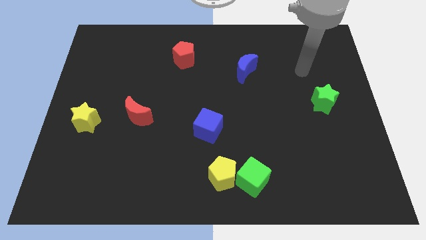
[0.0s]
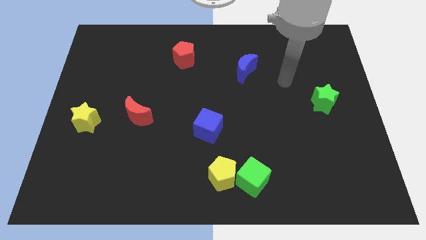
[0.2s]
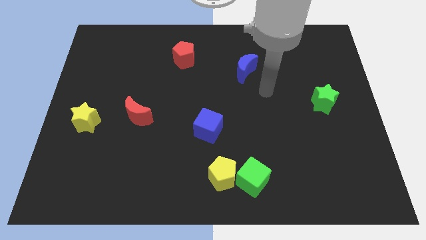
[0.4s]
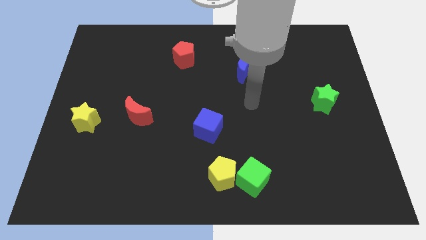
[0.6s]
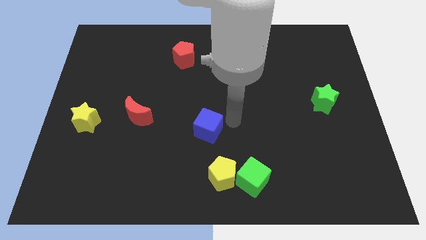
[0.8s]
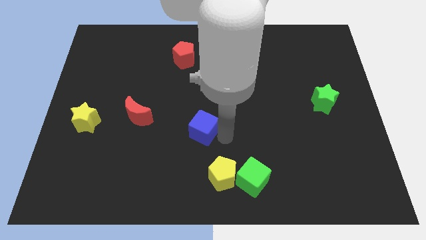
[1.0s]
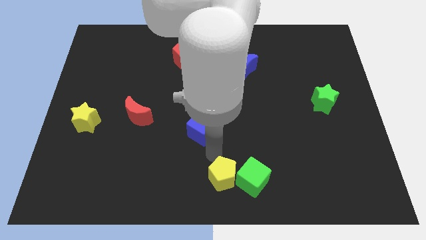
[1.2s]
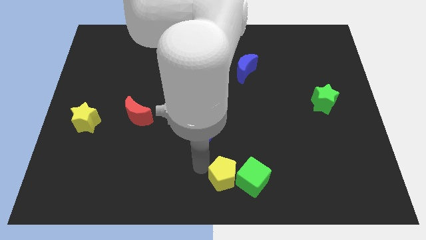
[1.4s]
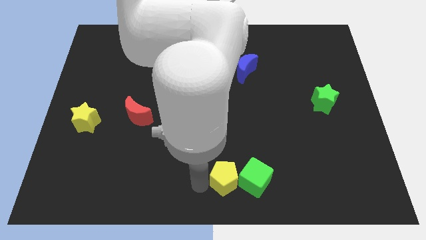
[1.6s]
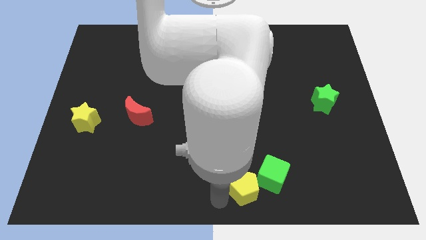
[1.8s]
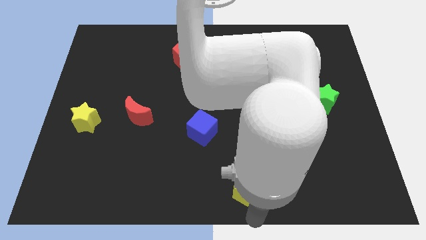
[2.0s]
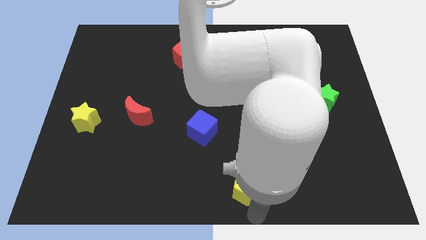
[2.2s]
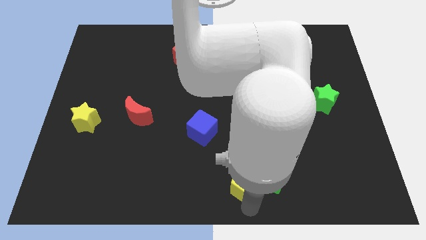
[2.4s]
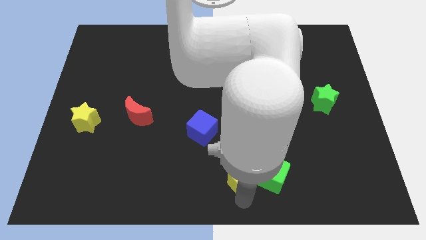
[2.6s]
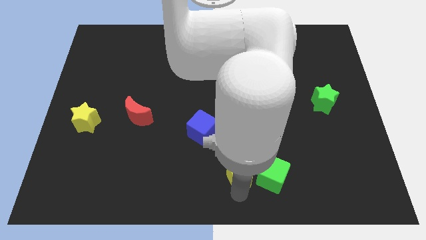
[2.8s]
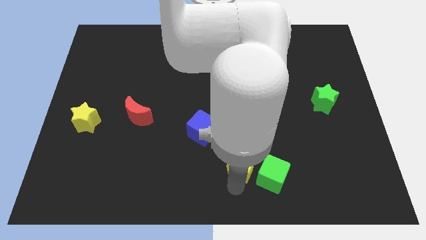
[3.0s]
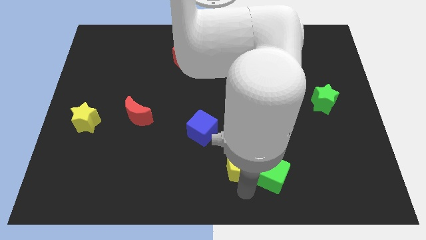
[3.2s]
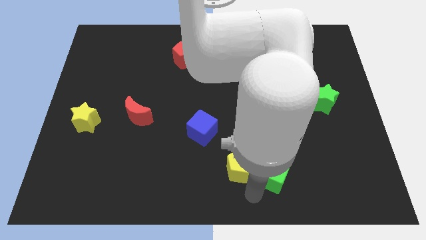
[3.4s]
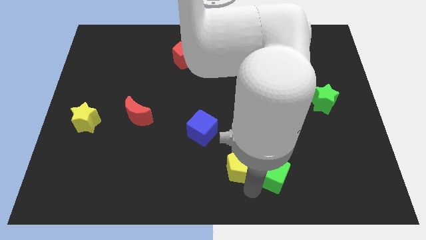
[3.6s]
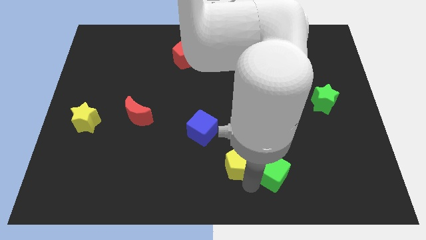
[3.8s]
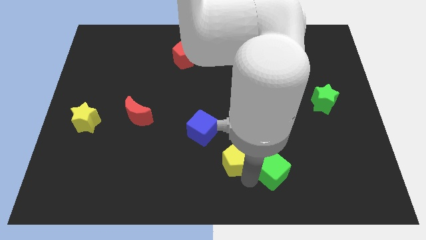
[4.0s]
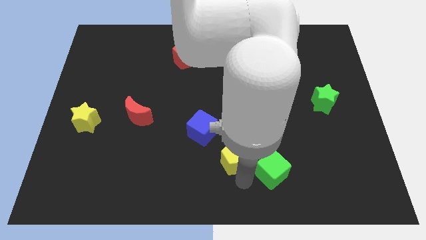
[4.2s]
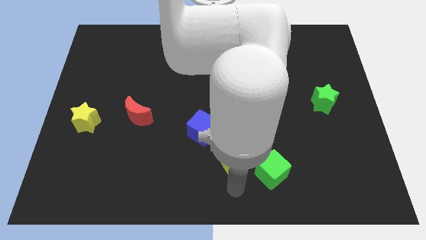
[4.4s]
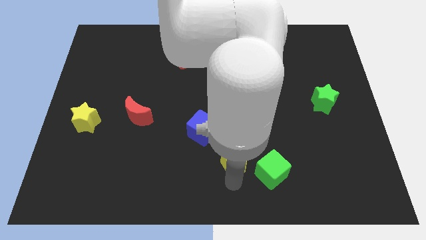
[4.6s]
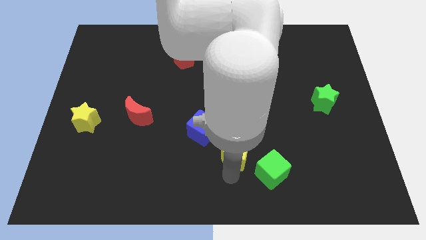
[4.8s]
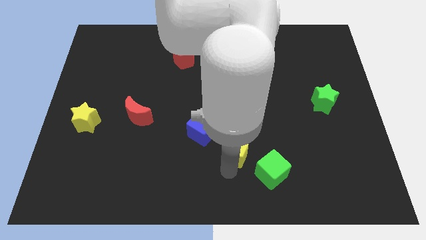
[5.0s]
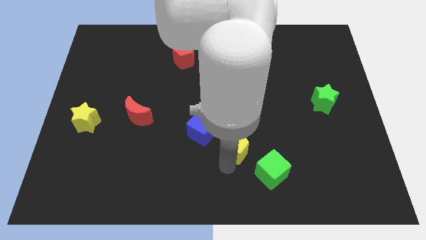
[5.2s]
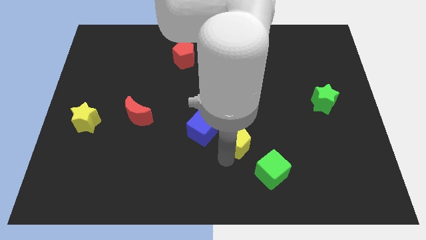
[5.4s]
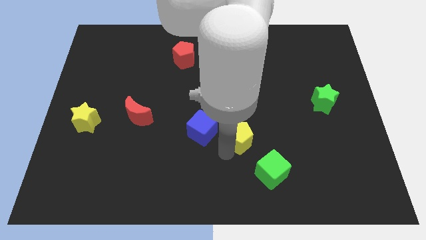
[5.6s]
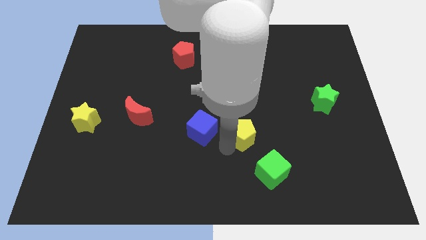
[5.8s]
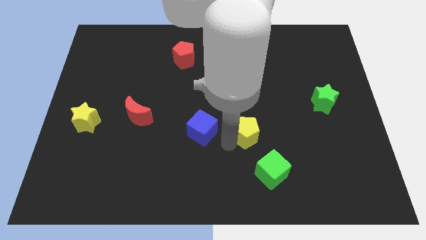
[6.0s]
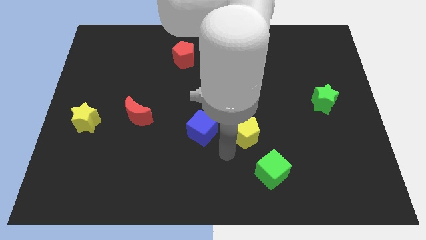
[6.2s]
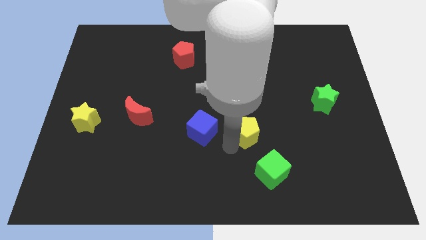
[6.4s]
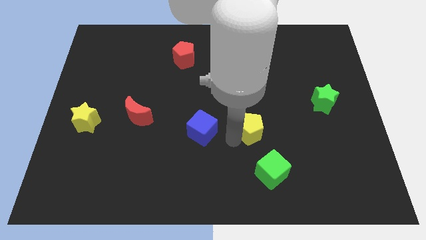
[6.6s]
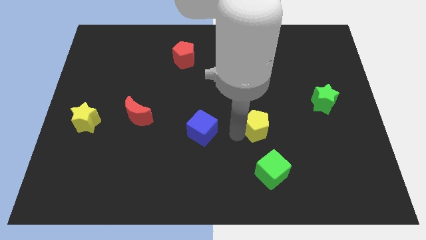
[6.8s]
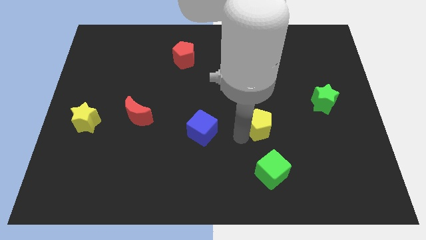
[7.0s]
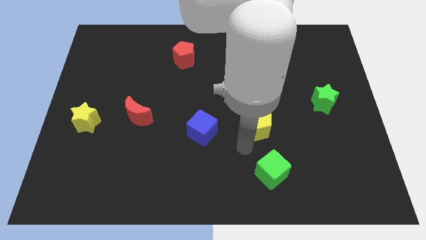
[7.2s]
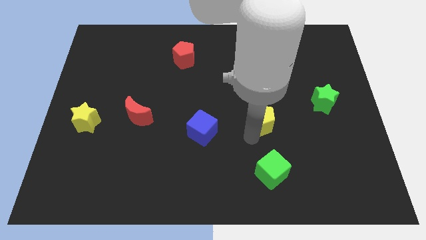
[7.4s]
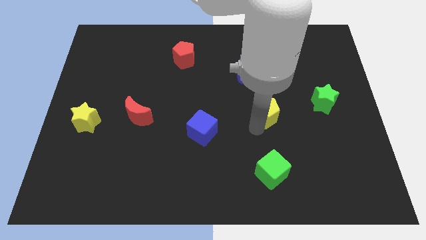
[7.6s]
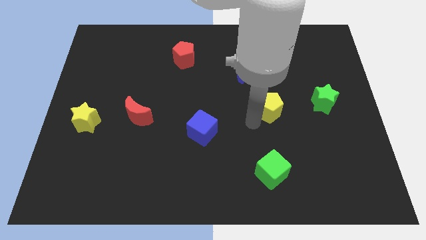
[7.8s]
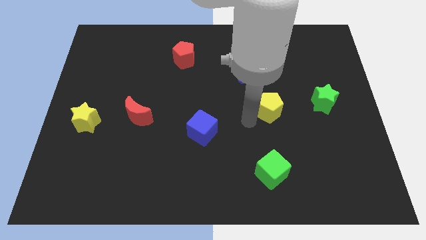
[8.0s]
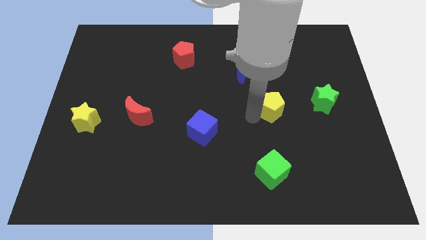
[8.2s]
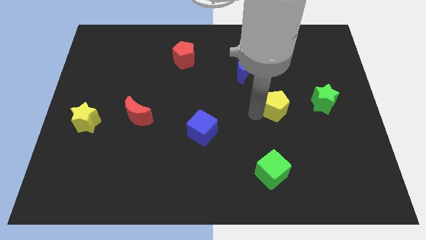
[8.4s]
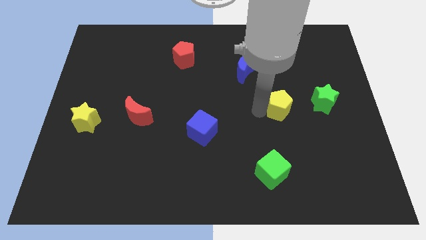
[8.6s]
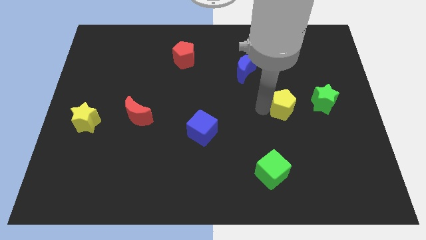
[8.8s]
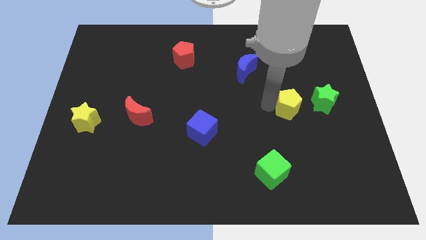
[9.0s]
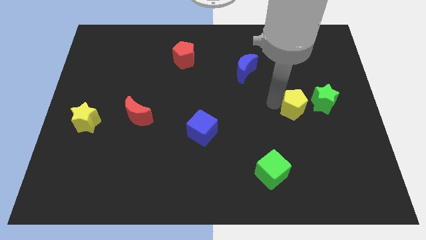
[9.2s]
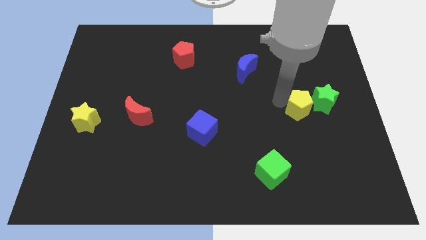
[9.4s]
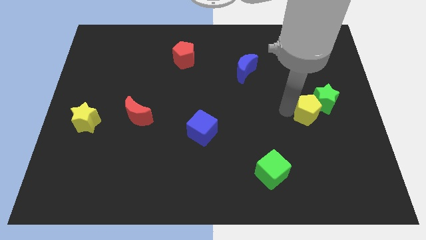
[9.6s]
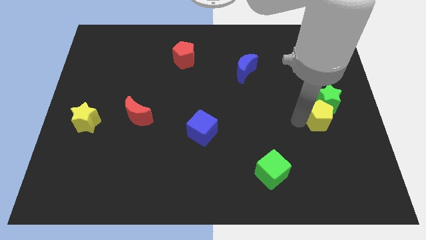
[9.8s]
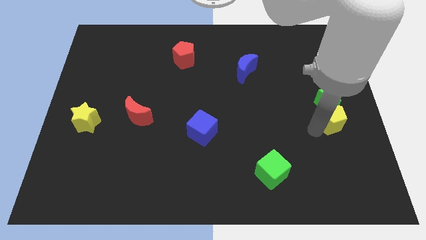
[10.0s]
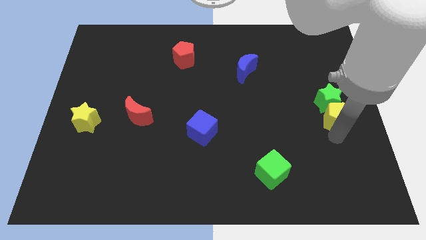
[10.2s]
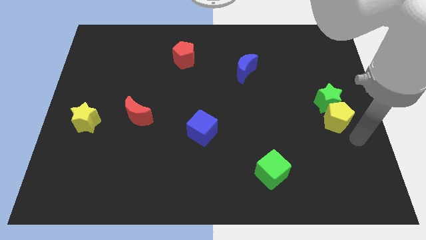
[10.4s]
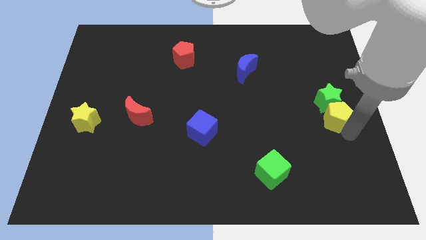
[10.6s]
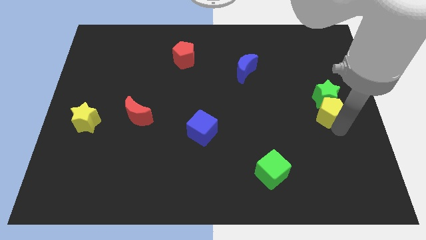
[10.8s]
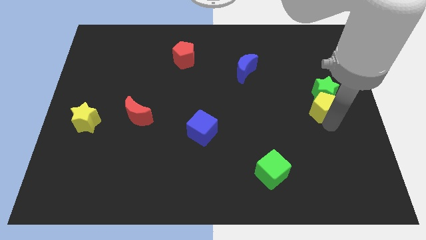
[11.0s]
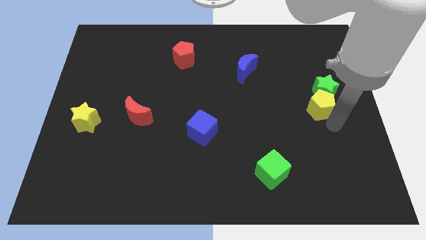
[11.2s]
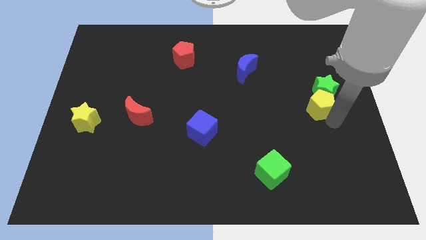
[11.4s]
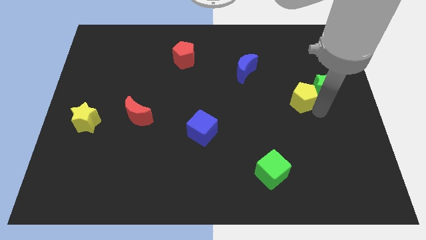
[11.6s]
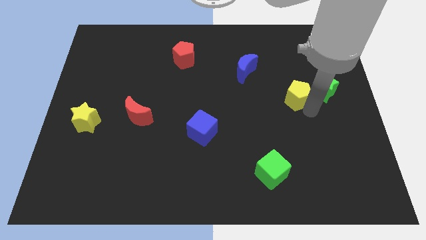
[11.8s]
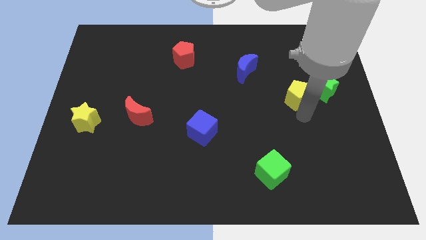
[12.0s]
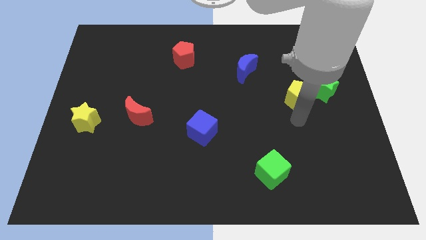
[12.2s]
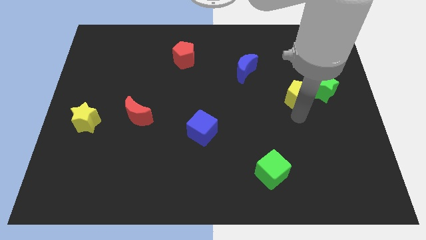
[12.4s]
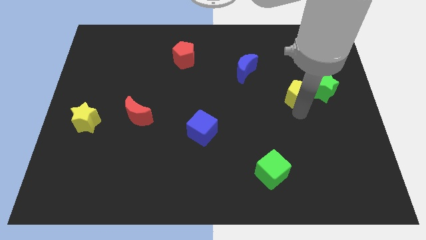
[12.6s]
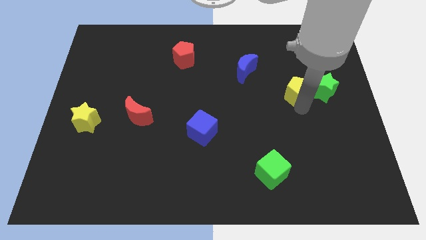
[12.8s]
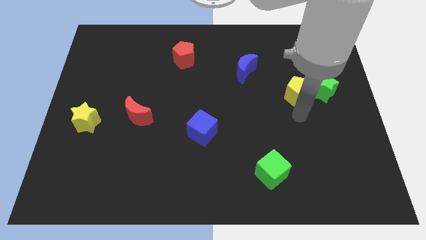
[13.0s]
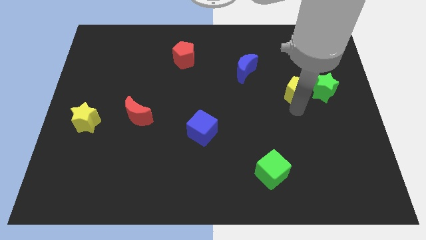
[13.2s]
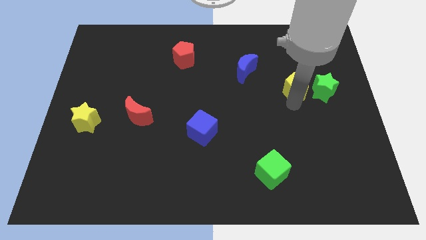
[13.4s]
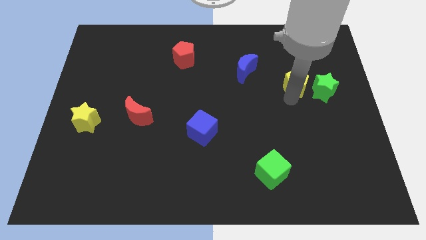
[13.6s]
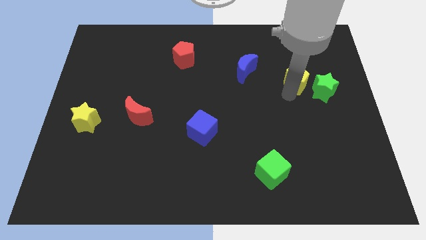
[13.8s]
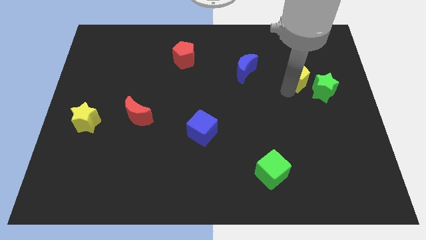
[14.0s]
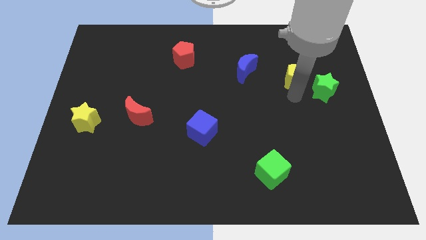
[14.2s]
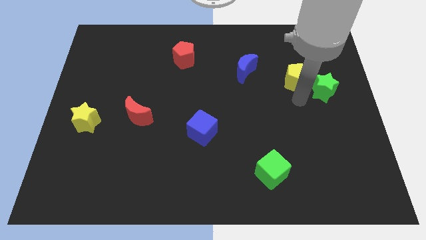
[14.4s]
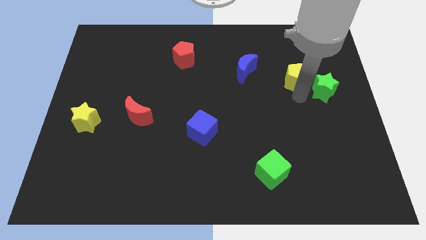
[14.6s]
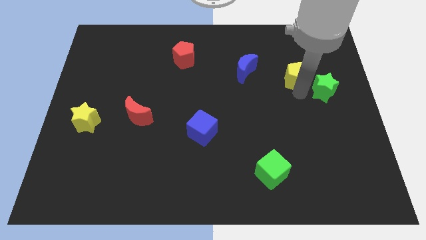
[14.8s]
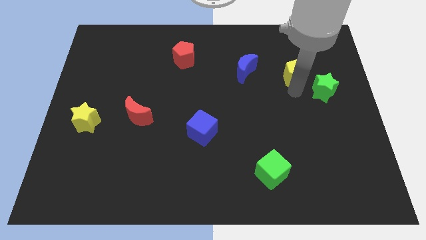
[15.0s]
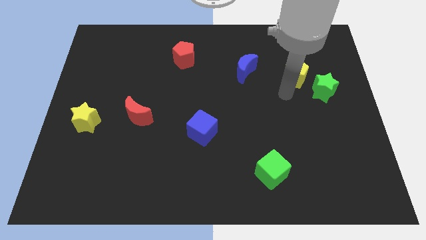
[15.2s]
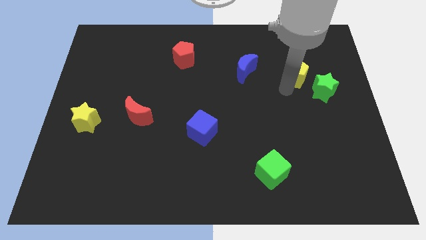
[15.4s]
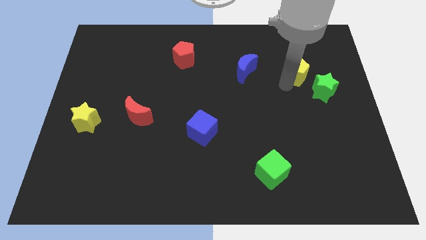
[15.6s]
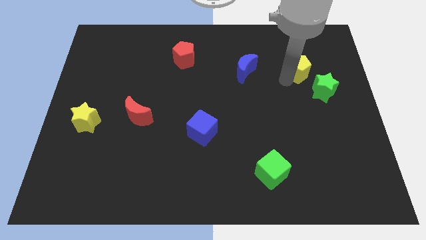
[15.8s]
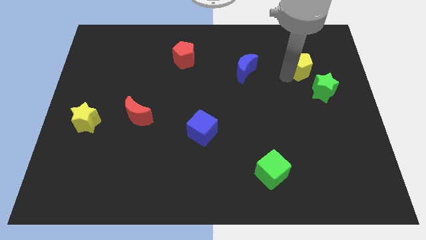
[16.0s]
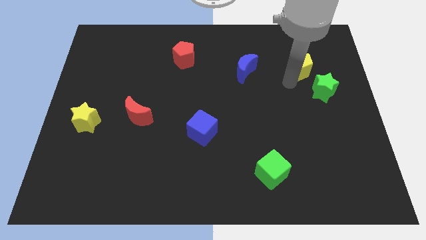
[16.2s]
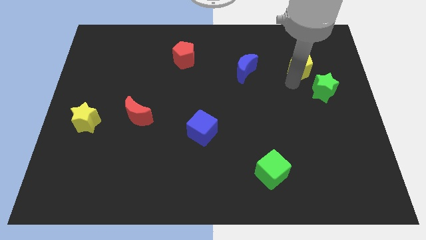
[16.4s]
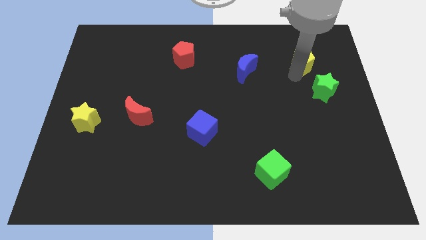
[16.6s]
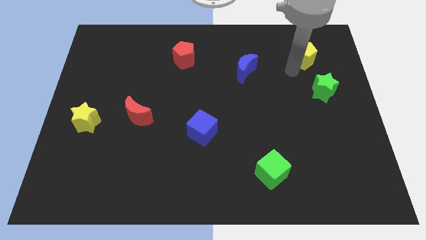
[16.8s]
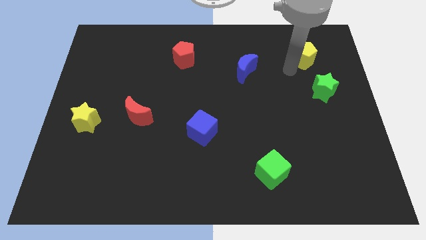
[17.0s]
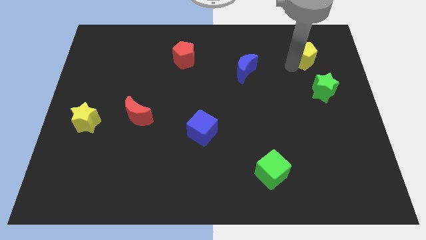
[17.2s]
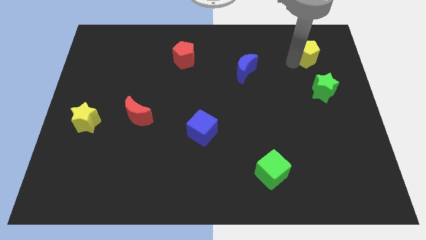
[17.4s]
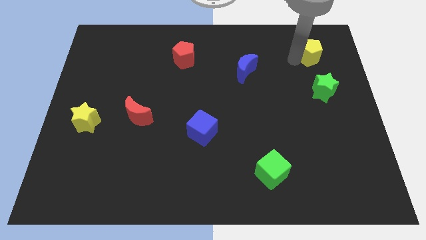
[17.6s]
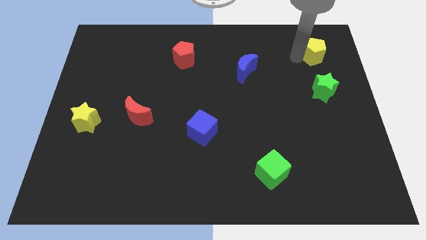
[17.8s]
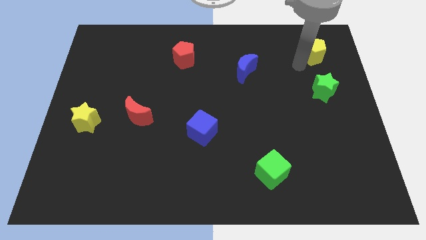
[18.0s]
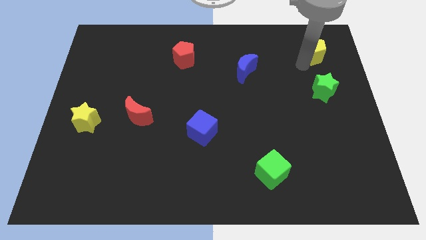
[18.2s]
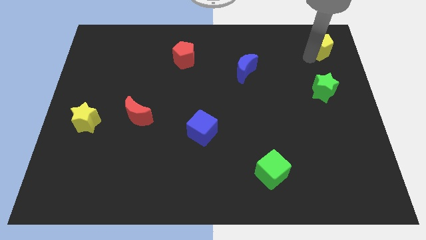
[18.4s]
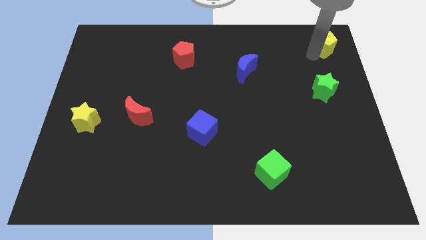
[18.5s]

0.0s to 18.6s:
slide the yellow pentagon to the top right
